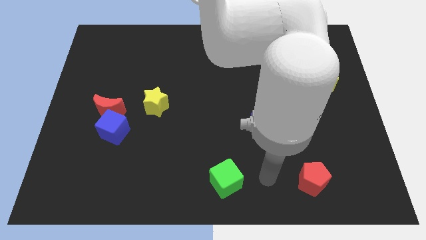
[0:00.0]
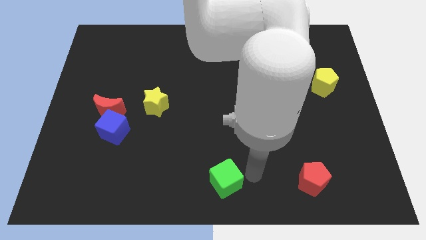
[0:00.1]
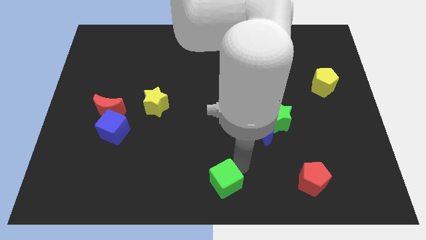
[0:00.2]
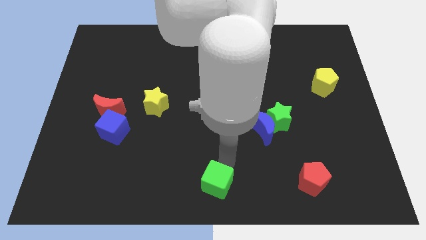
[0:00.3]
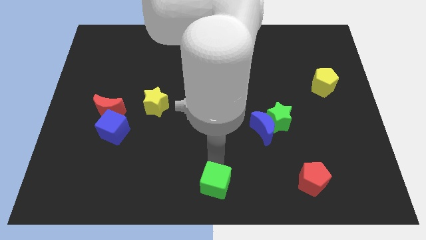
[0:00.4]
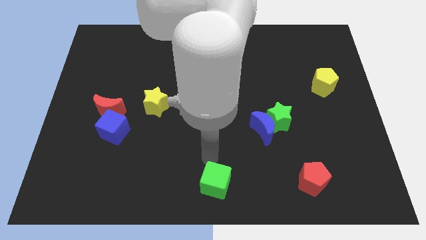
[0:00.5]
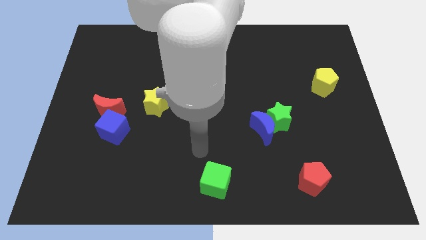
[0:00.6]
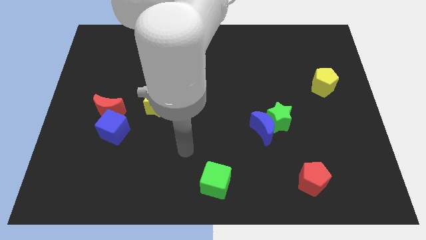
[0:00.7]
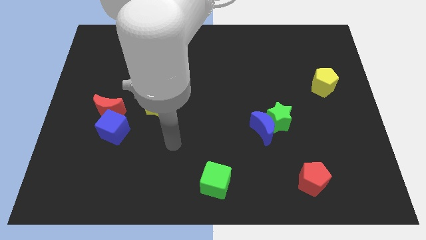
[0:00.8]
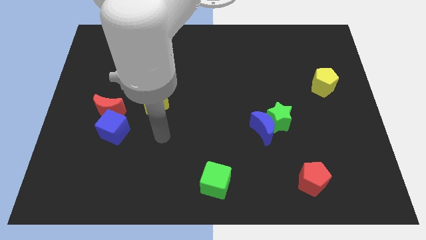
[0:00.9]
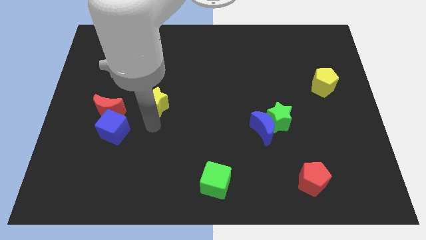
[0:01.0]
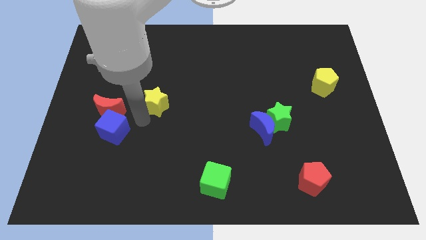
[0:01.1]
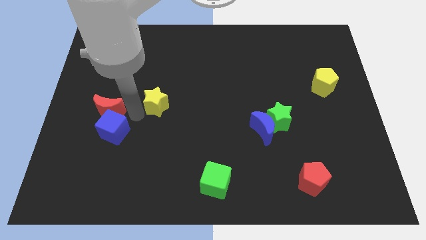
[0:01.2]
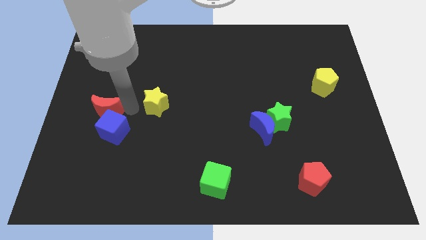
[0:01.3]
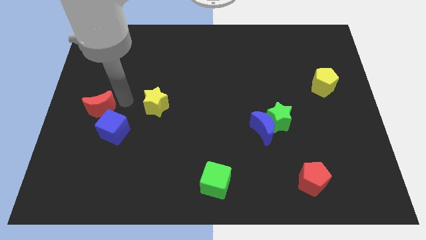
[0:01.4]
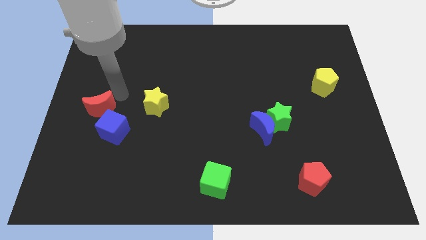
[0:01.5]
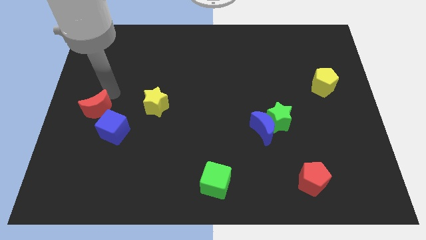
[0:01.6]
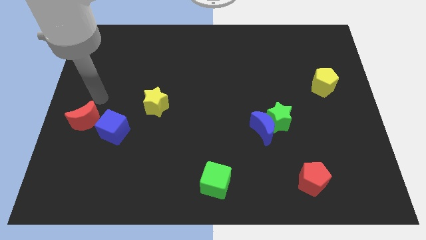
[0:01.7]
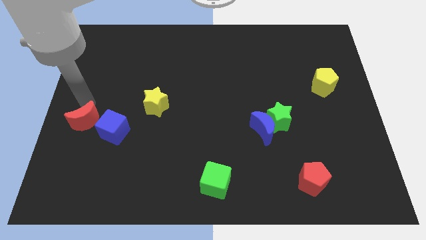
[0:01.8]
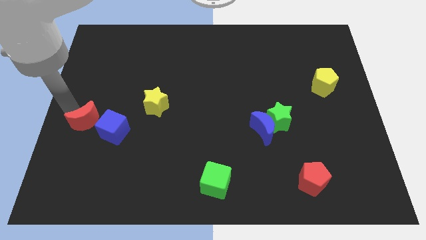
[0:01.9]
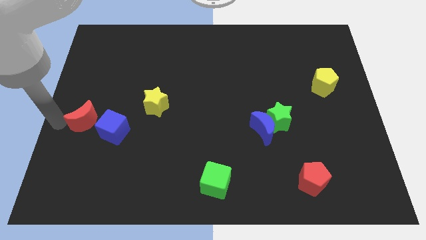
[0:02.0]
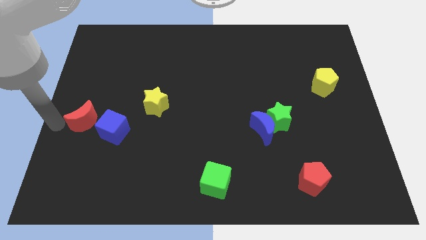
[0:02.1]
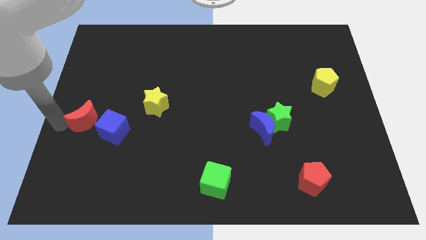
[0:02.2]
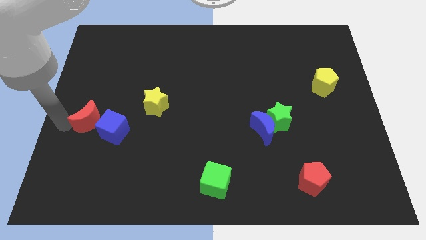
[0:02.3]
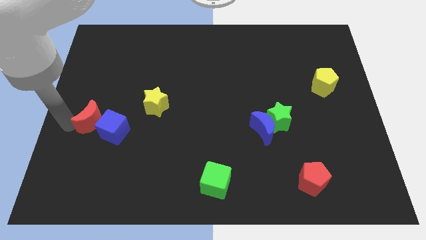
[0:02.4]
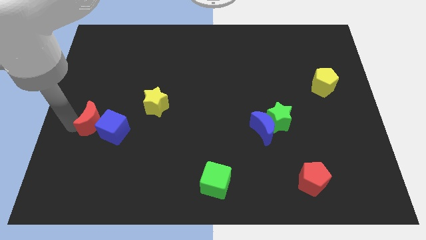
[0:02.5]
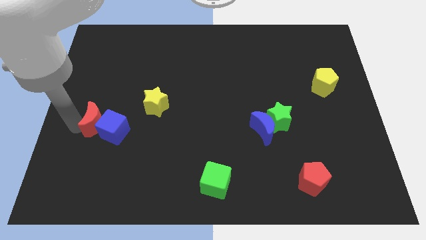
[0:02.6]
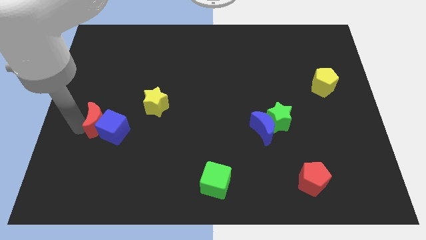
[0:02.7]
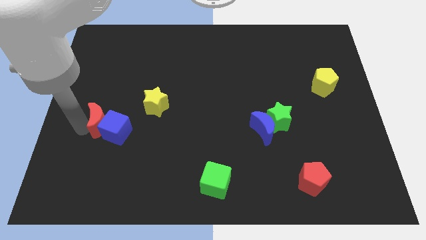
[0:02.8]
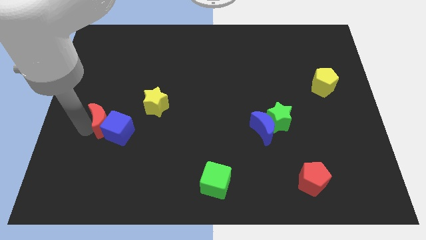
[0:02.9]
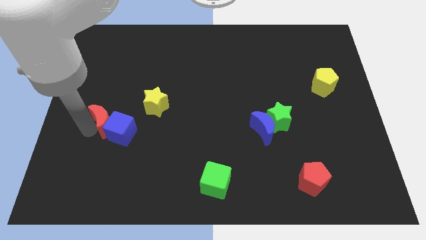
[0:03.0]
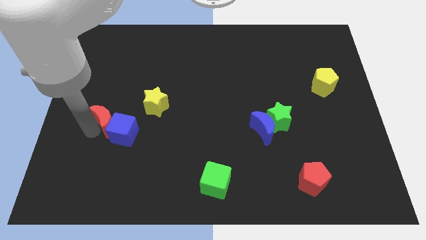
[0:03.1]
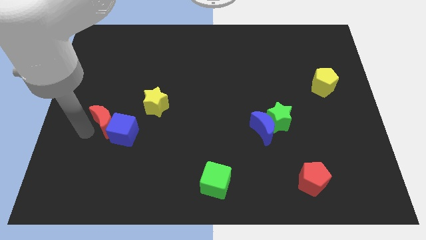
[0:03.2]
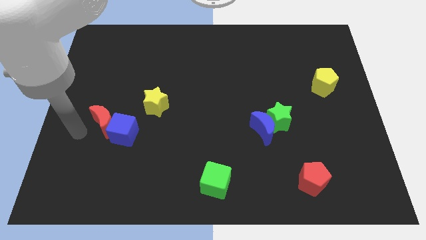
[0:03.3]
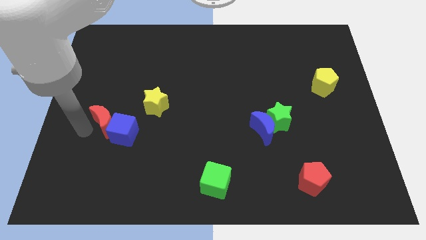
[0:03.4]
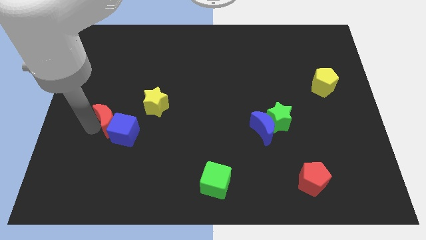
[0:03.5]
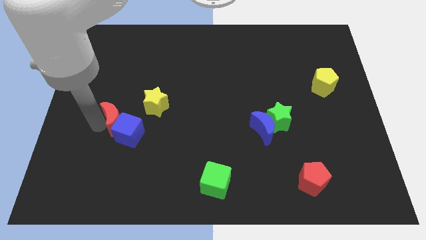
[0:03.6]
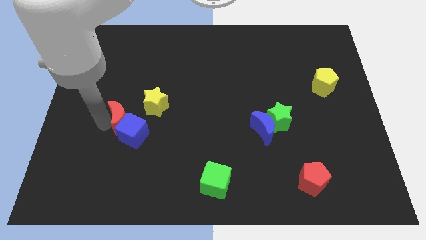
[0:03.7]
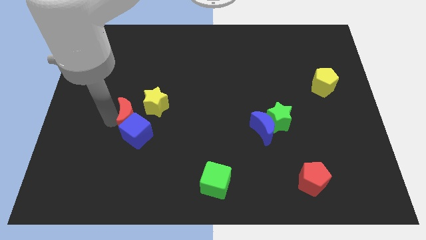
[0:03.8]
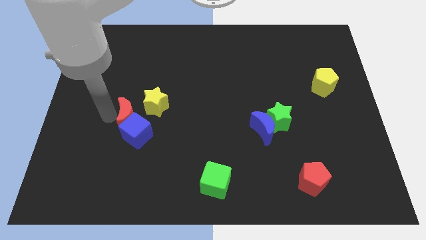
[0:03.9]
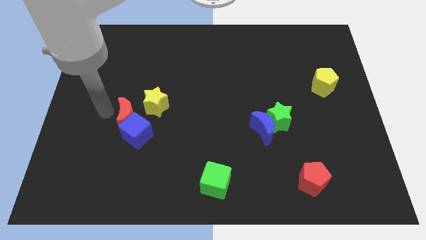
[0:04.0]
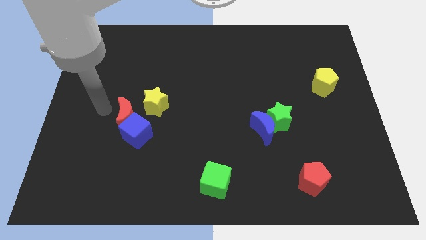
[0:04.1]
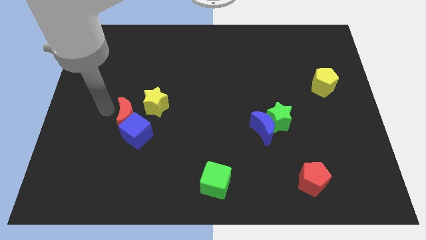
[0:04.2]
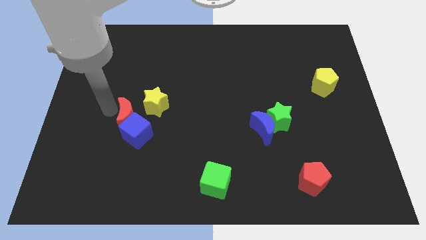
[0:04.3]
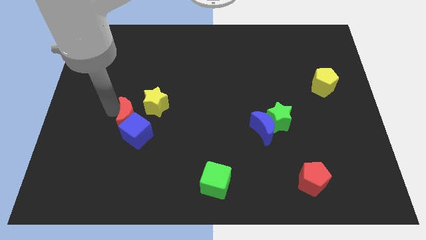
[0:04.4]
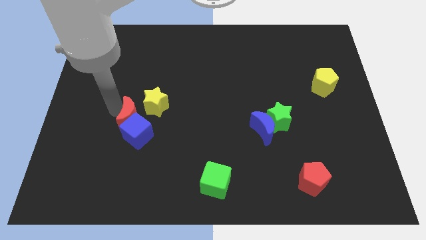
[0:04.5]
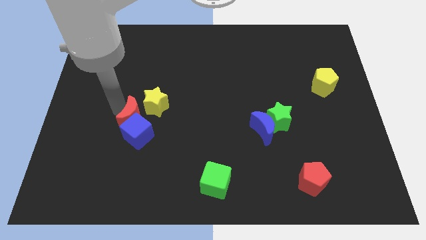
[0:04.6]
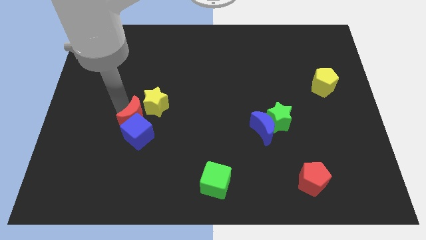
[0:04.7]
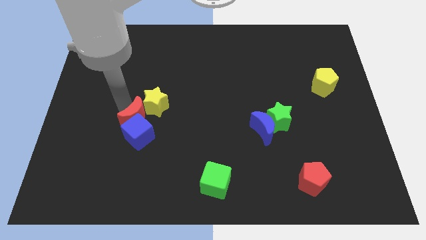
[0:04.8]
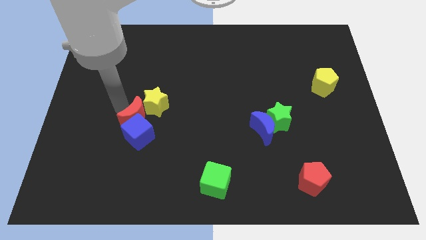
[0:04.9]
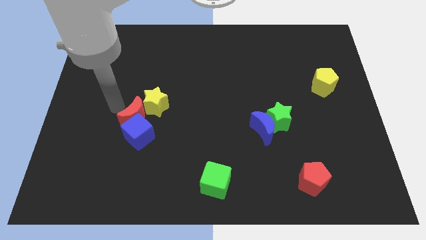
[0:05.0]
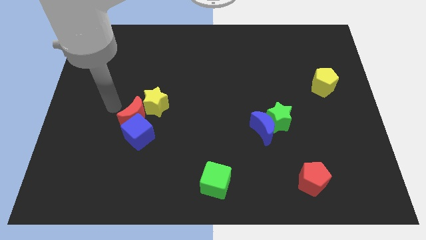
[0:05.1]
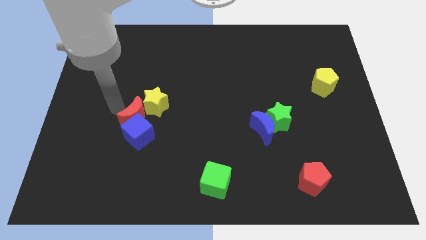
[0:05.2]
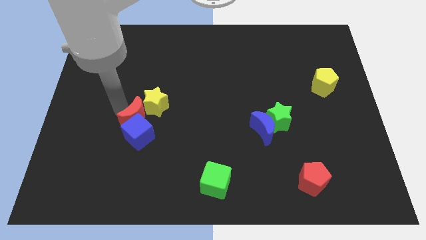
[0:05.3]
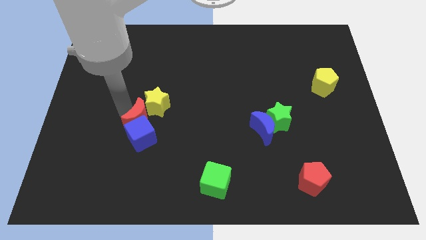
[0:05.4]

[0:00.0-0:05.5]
slightly move the red moon right

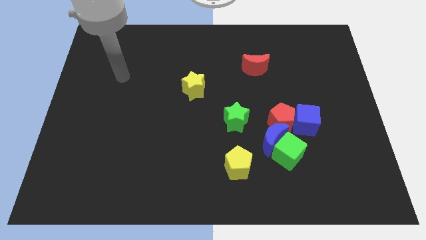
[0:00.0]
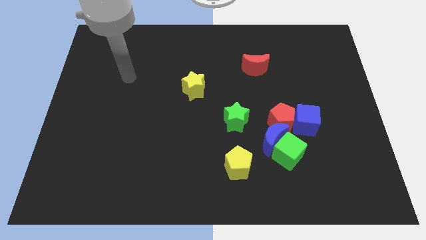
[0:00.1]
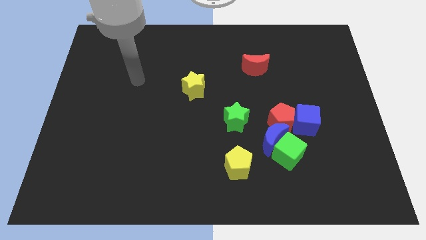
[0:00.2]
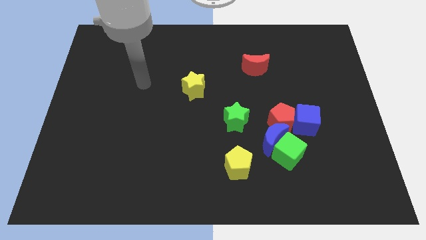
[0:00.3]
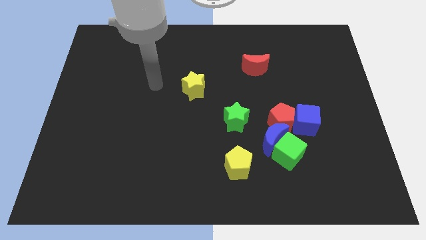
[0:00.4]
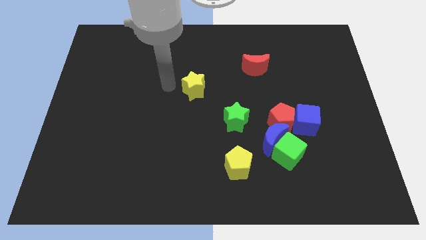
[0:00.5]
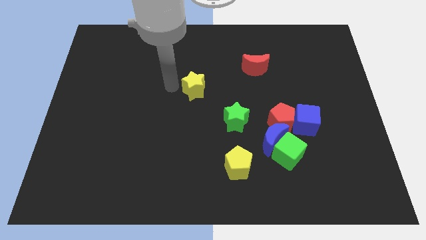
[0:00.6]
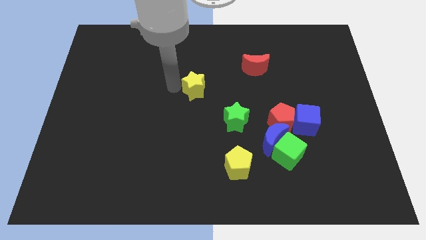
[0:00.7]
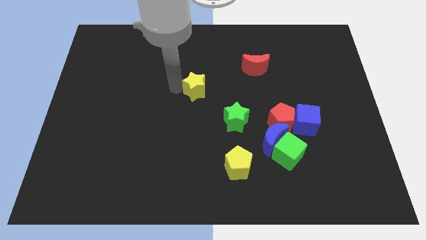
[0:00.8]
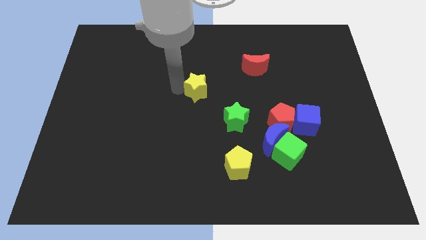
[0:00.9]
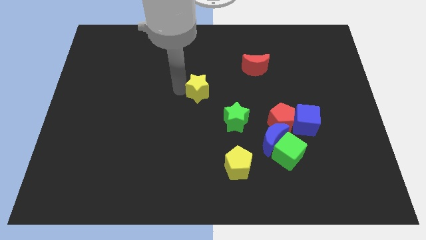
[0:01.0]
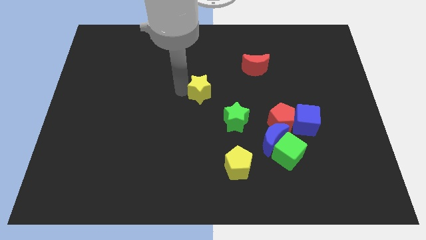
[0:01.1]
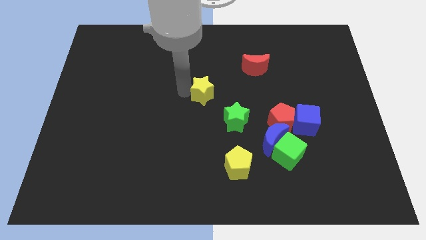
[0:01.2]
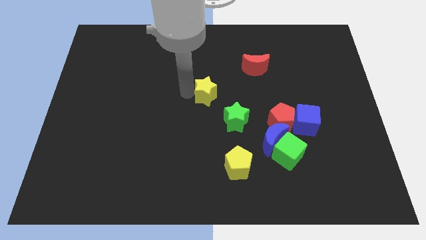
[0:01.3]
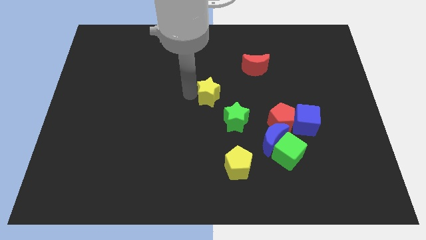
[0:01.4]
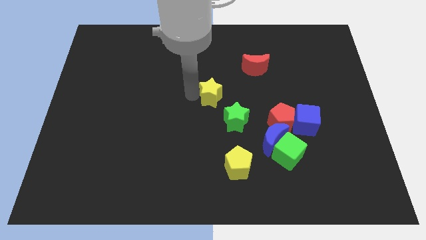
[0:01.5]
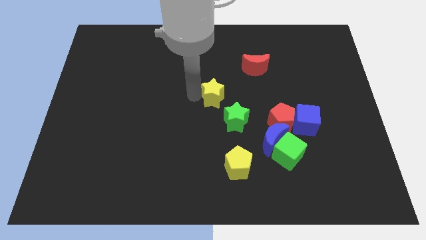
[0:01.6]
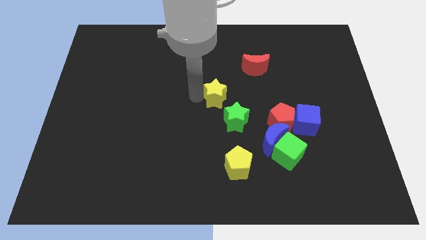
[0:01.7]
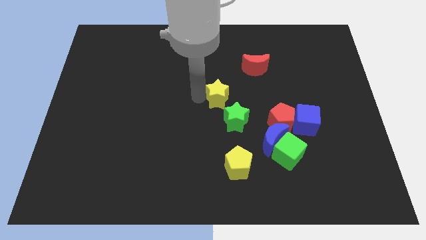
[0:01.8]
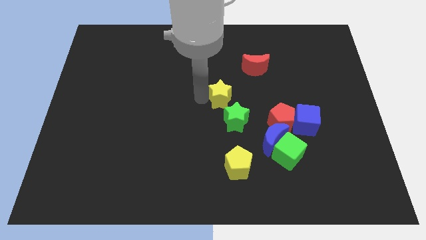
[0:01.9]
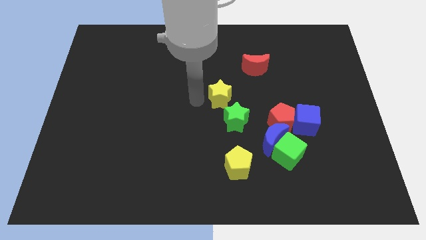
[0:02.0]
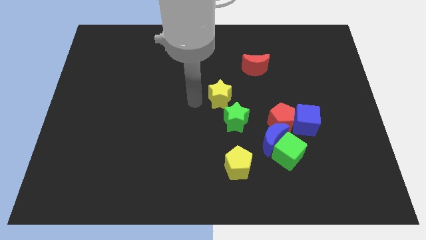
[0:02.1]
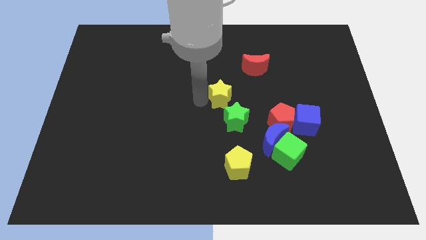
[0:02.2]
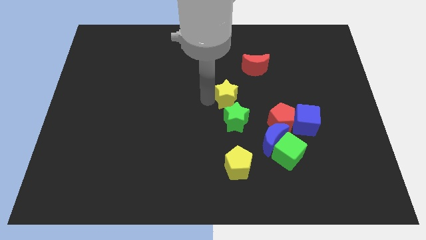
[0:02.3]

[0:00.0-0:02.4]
move the yellow star a little right
